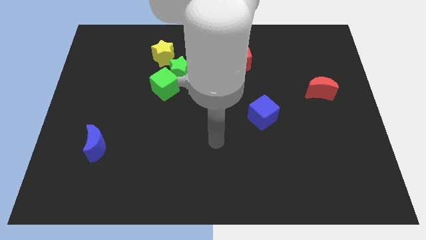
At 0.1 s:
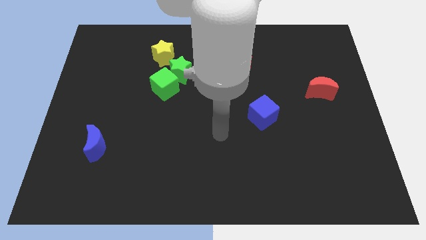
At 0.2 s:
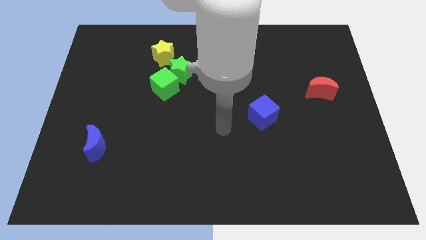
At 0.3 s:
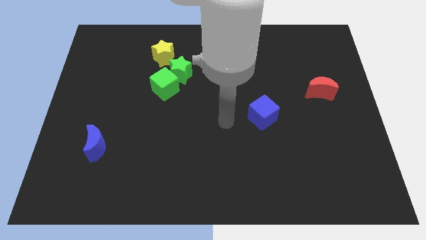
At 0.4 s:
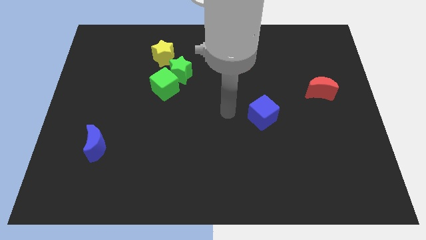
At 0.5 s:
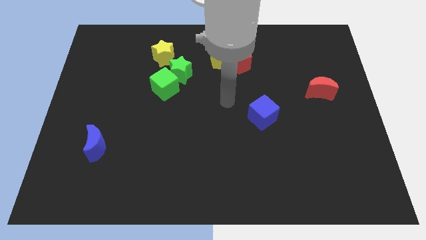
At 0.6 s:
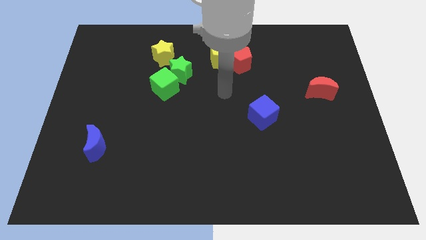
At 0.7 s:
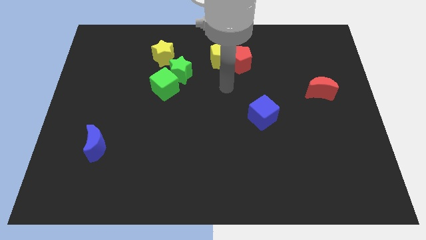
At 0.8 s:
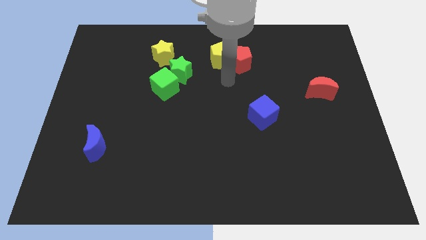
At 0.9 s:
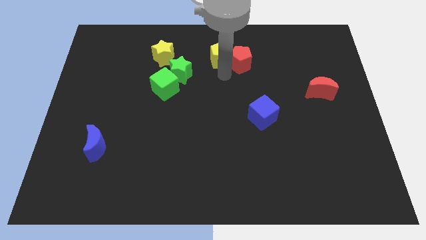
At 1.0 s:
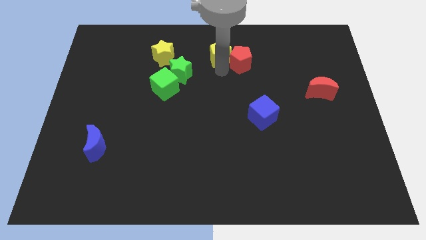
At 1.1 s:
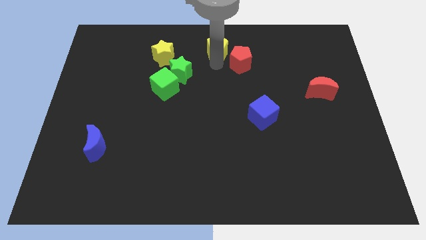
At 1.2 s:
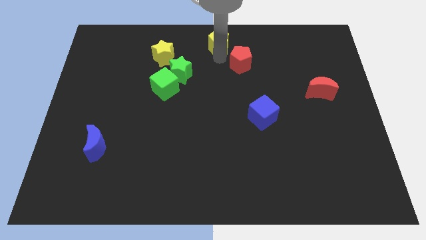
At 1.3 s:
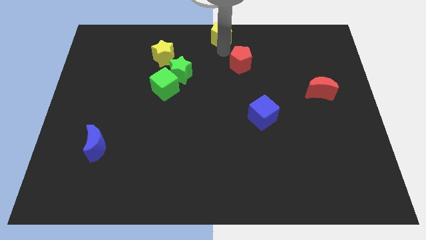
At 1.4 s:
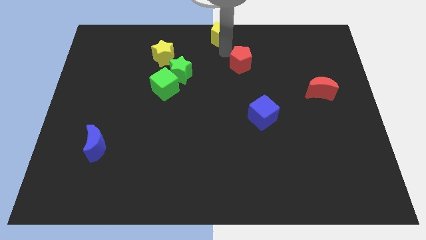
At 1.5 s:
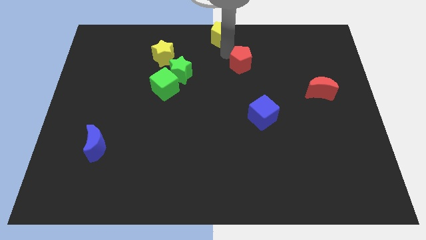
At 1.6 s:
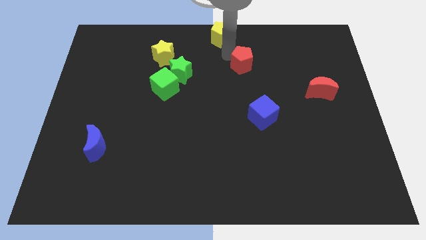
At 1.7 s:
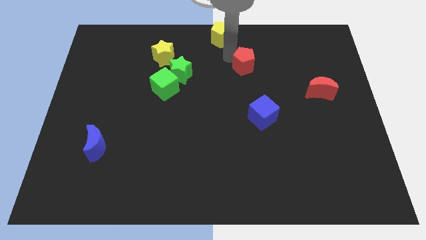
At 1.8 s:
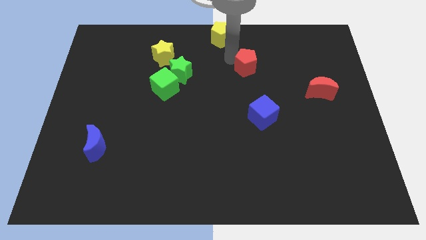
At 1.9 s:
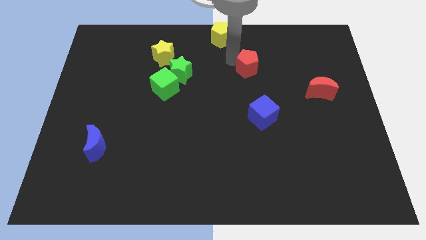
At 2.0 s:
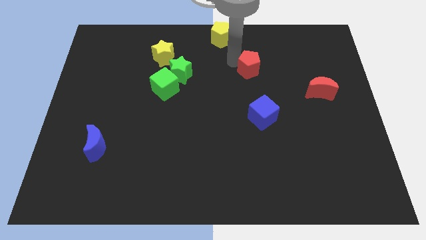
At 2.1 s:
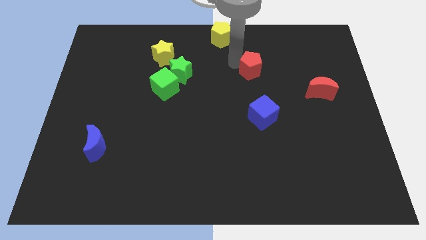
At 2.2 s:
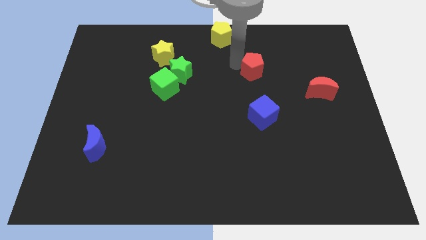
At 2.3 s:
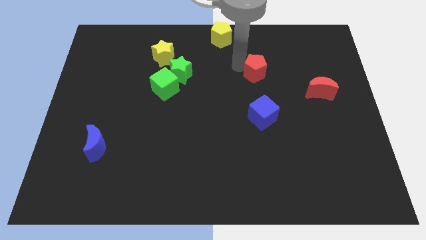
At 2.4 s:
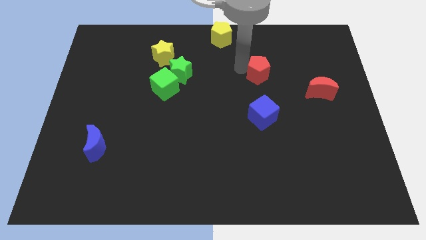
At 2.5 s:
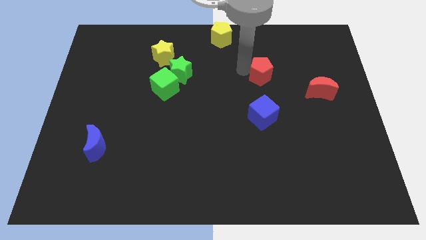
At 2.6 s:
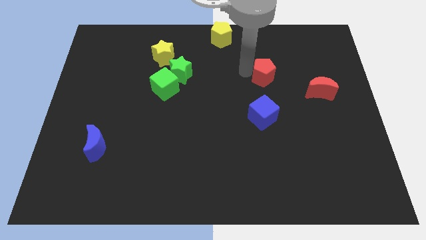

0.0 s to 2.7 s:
slightly move the red pentagon diagonally down and to the right

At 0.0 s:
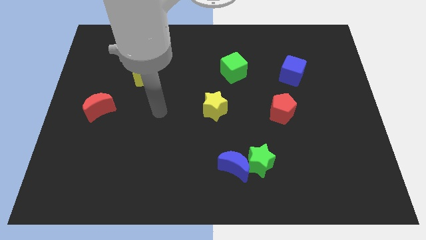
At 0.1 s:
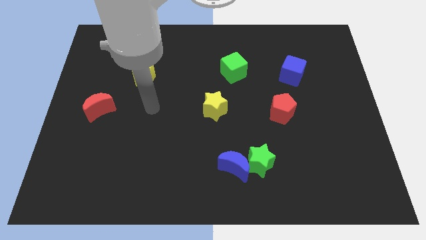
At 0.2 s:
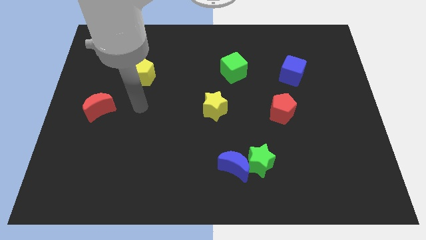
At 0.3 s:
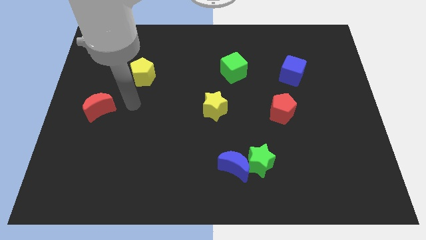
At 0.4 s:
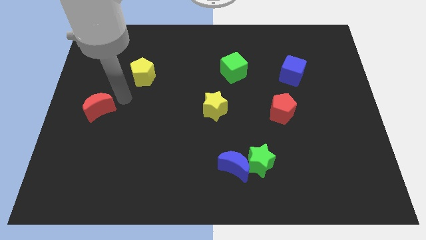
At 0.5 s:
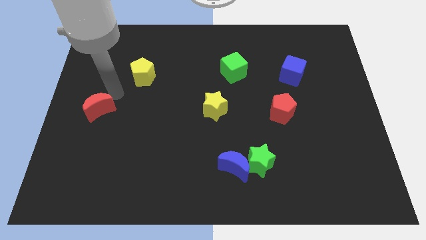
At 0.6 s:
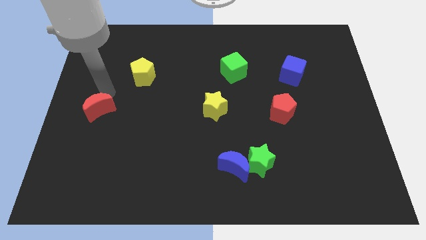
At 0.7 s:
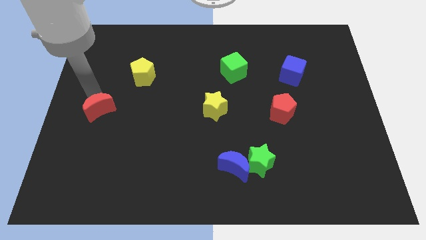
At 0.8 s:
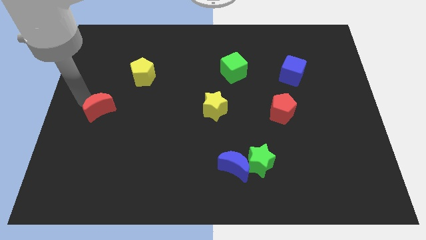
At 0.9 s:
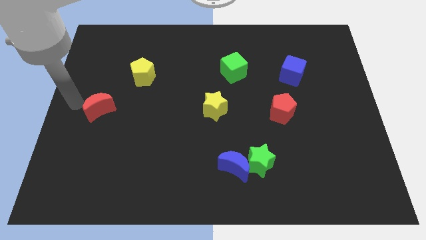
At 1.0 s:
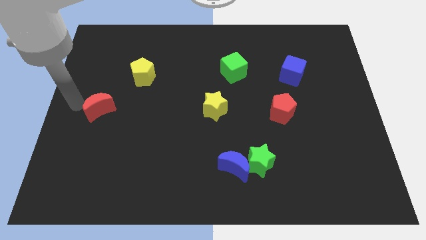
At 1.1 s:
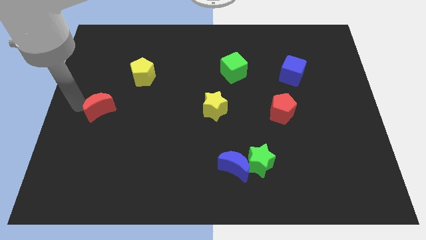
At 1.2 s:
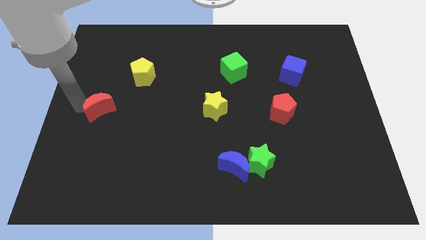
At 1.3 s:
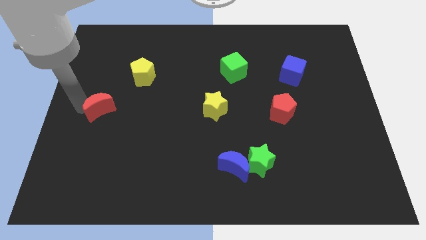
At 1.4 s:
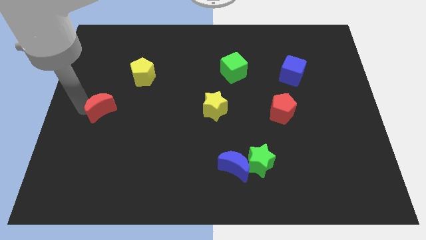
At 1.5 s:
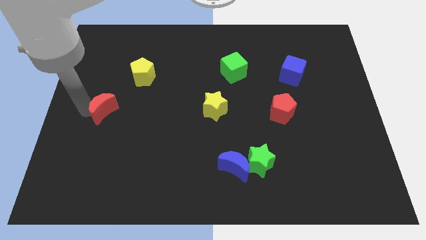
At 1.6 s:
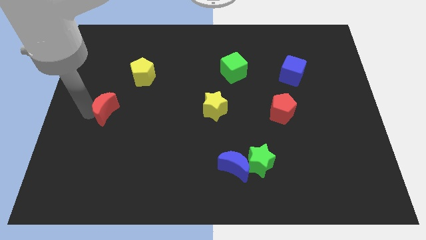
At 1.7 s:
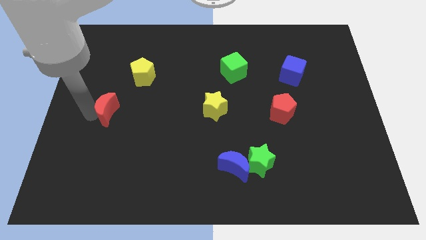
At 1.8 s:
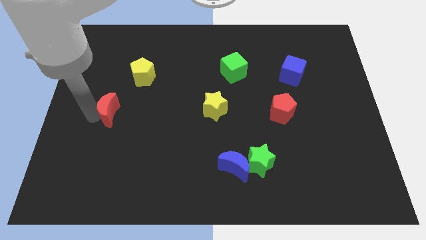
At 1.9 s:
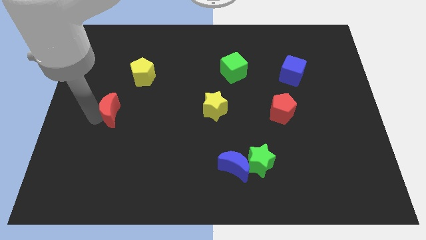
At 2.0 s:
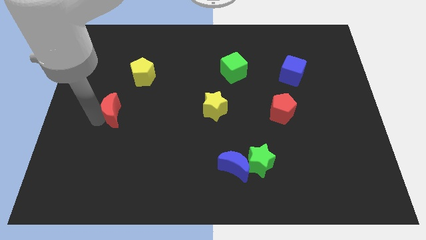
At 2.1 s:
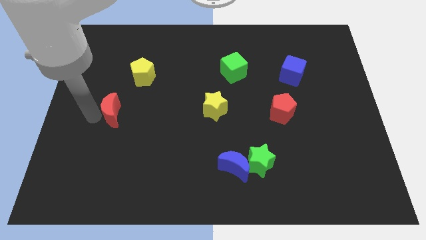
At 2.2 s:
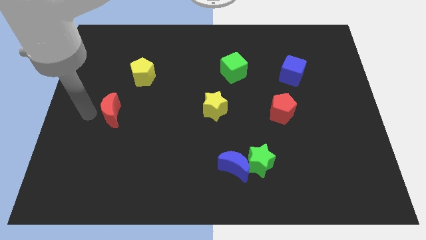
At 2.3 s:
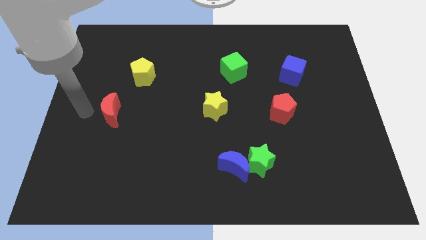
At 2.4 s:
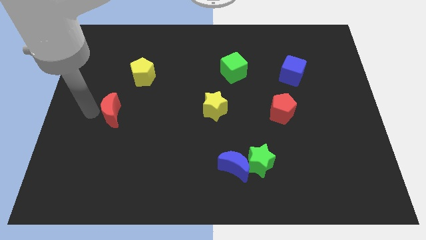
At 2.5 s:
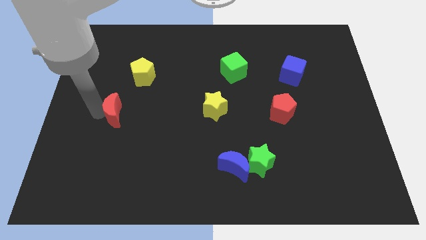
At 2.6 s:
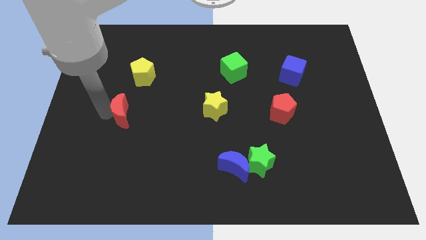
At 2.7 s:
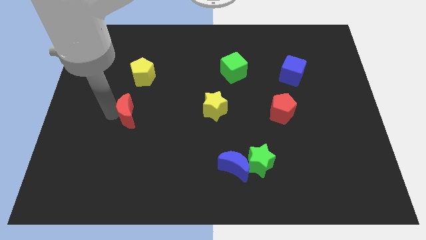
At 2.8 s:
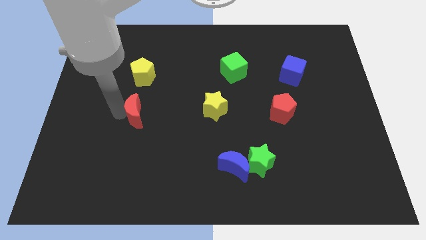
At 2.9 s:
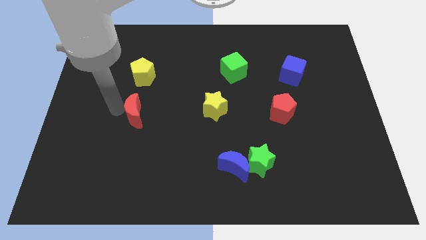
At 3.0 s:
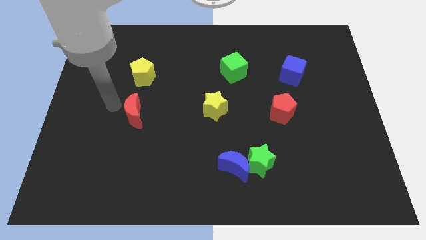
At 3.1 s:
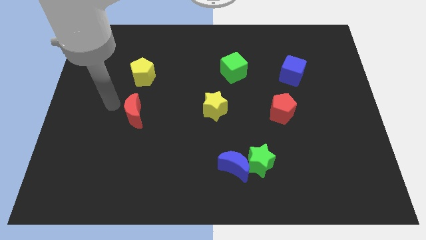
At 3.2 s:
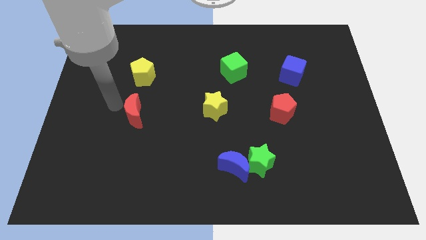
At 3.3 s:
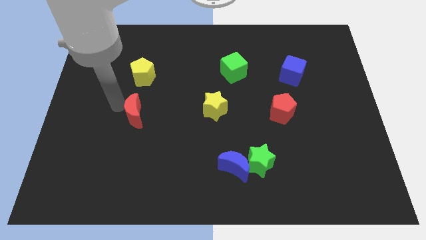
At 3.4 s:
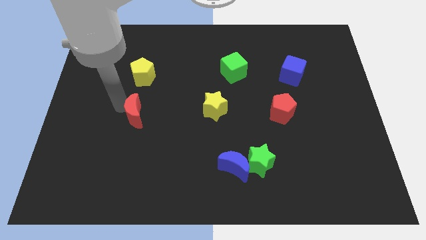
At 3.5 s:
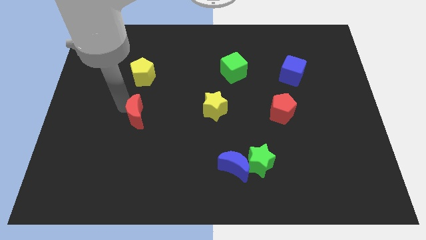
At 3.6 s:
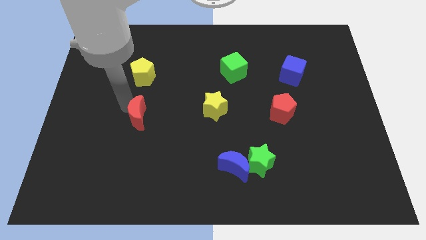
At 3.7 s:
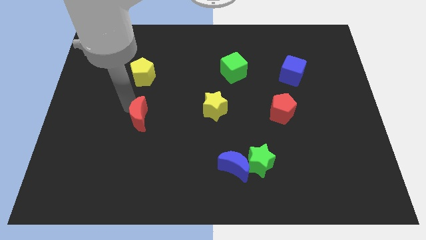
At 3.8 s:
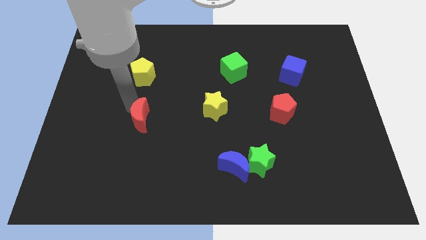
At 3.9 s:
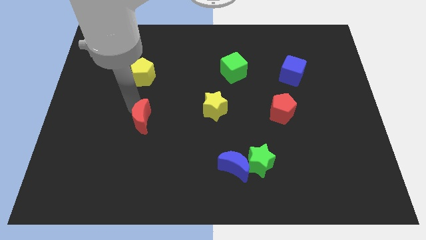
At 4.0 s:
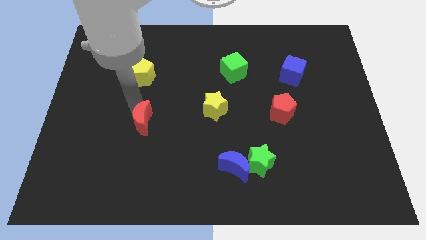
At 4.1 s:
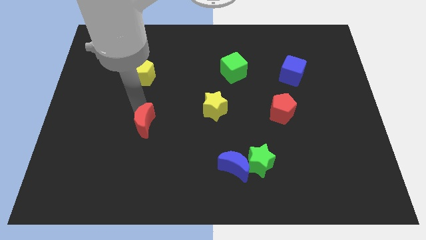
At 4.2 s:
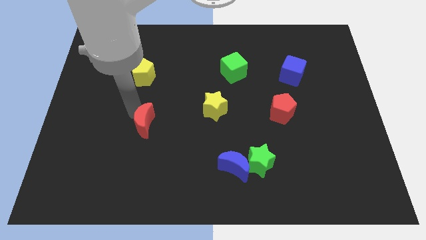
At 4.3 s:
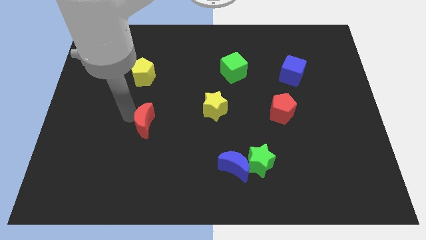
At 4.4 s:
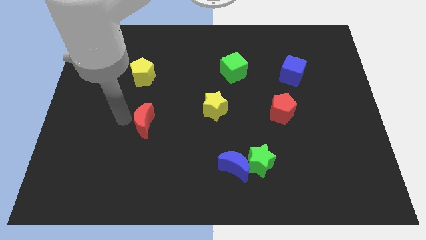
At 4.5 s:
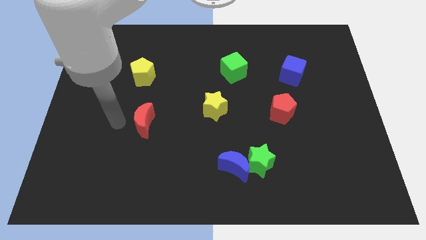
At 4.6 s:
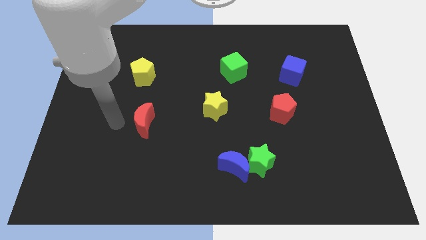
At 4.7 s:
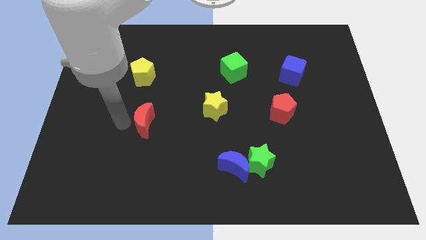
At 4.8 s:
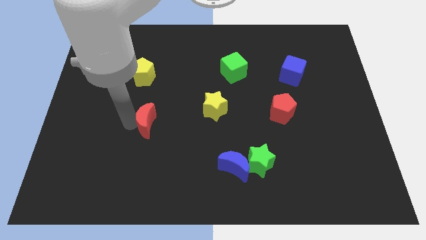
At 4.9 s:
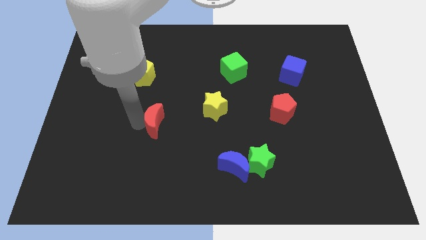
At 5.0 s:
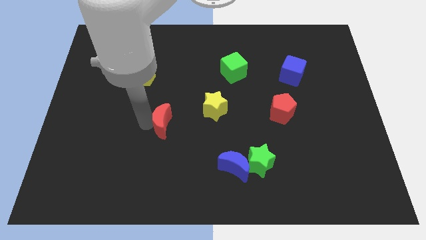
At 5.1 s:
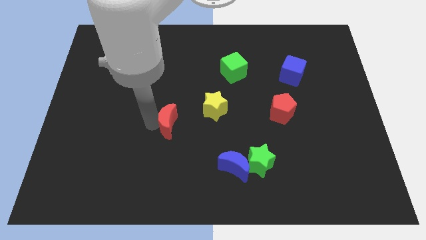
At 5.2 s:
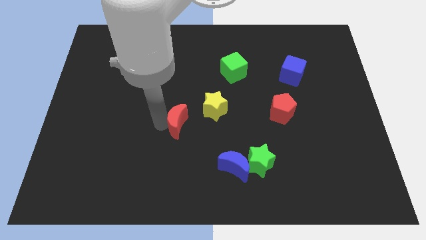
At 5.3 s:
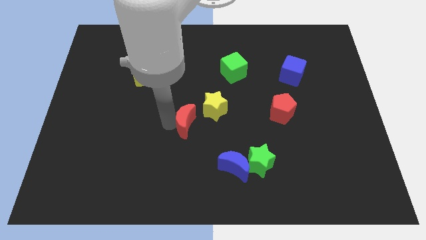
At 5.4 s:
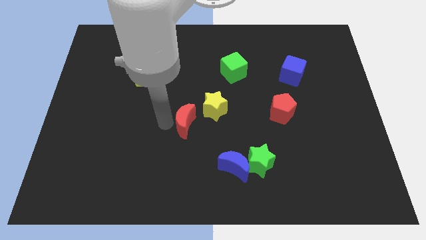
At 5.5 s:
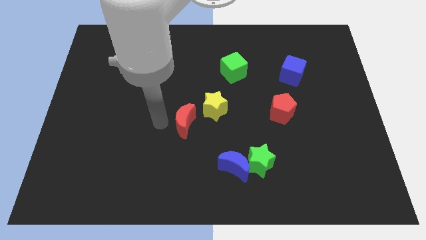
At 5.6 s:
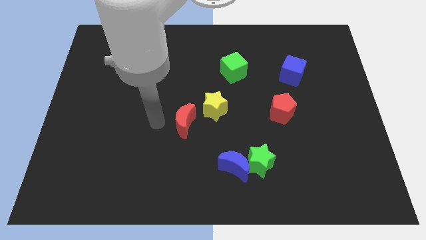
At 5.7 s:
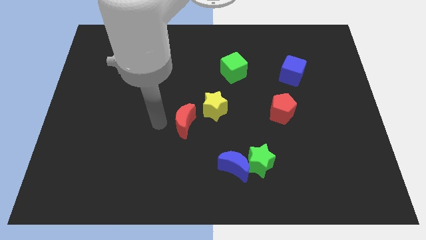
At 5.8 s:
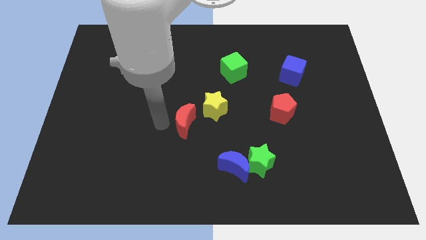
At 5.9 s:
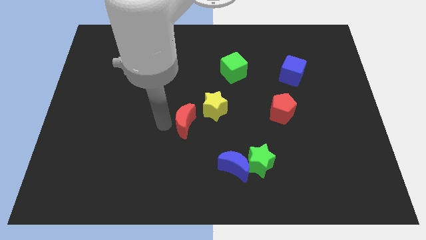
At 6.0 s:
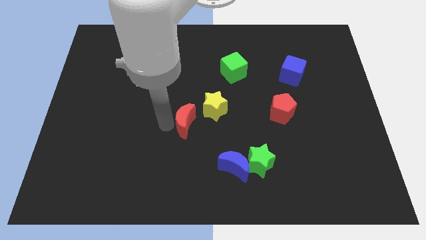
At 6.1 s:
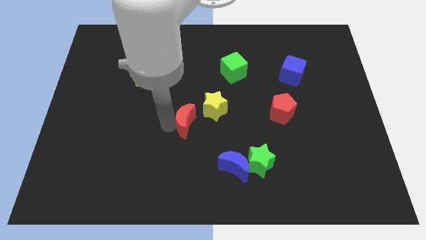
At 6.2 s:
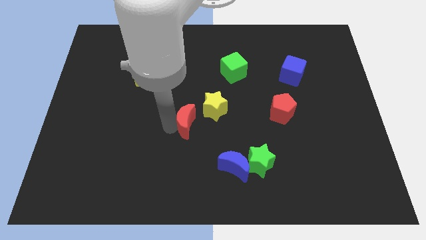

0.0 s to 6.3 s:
slide the red moon right
